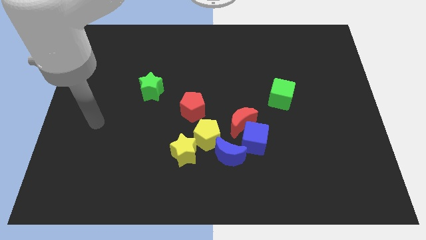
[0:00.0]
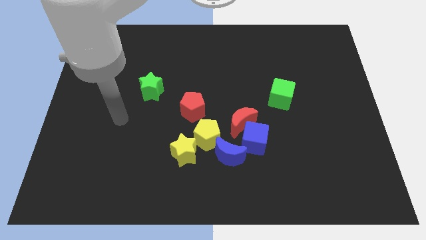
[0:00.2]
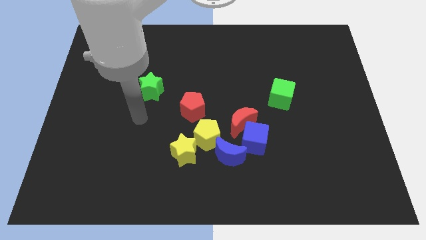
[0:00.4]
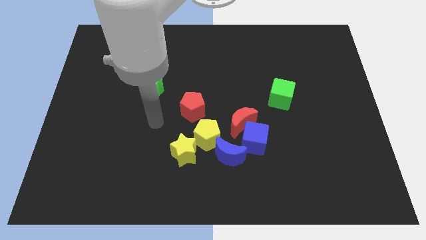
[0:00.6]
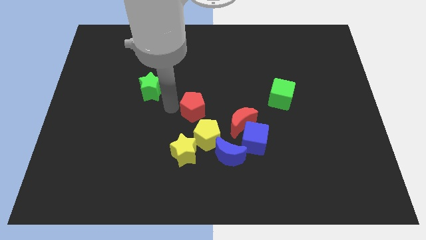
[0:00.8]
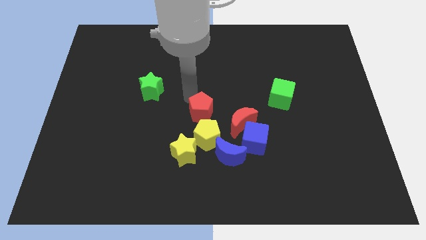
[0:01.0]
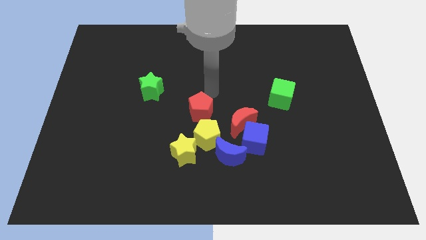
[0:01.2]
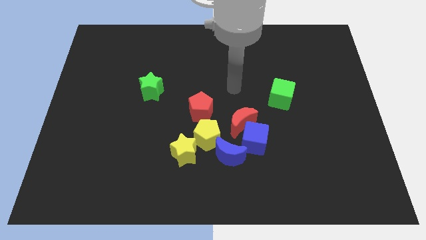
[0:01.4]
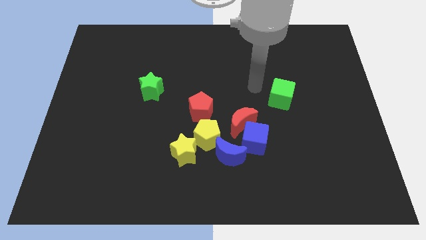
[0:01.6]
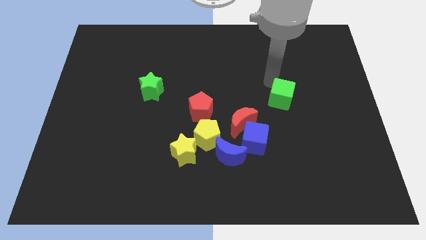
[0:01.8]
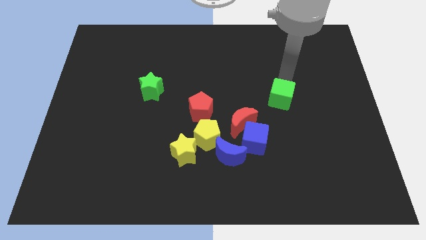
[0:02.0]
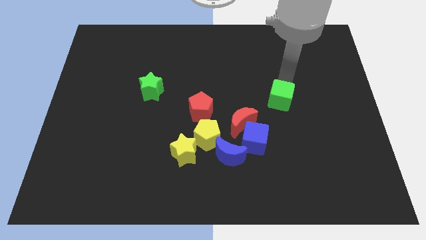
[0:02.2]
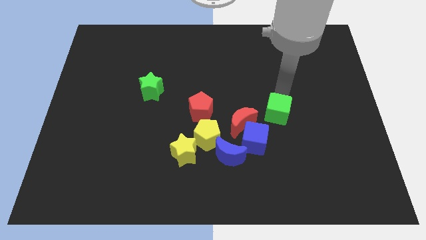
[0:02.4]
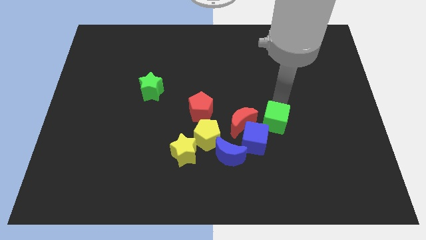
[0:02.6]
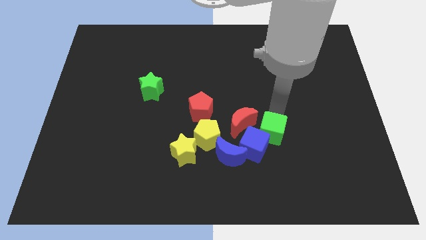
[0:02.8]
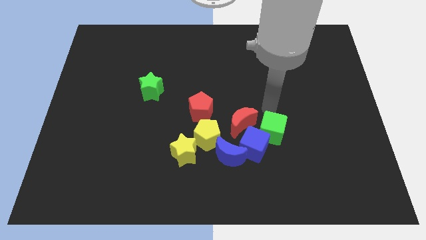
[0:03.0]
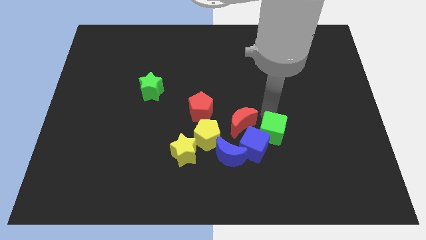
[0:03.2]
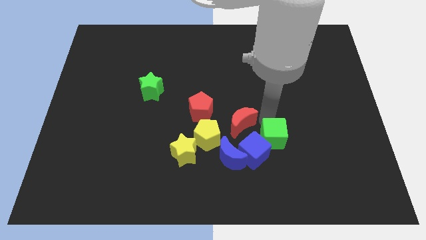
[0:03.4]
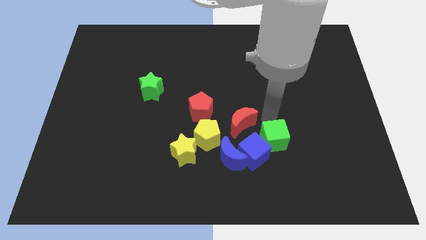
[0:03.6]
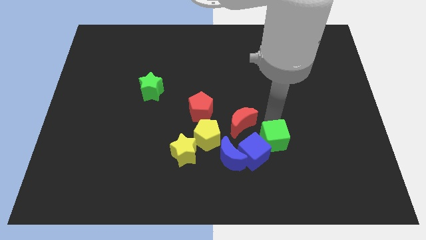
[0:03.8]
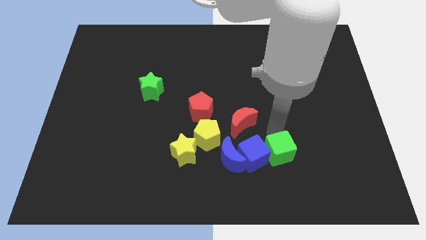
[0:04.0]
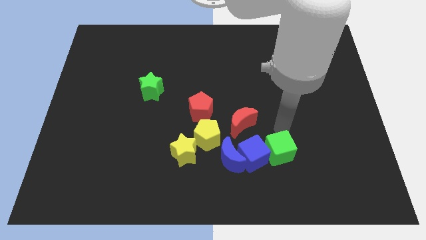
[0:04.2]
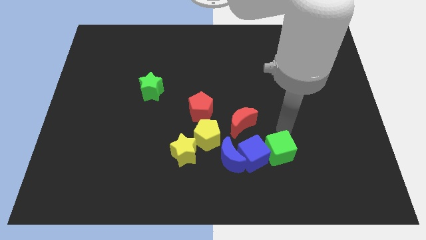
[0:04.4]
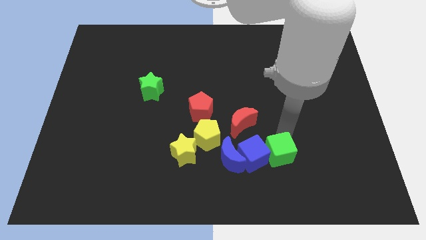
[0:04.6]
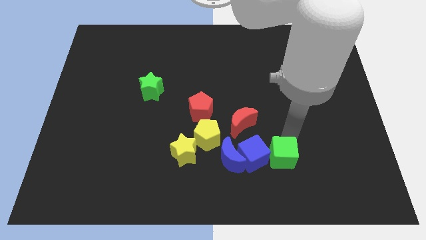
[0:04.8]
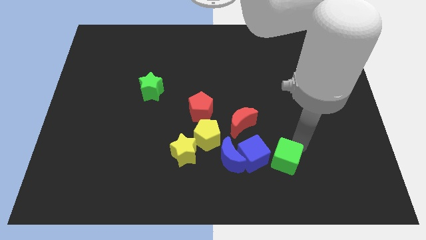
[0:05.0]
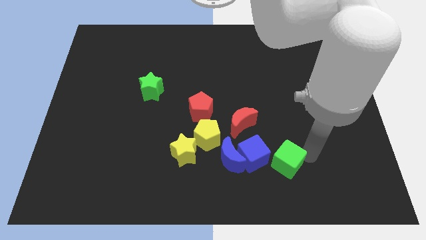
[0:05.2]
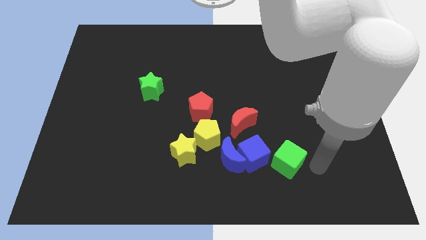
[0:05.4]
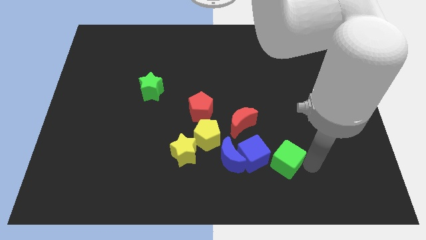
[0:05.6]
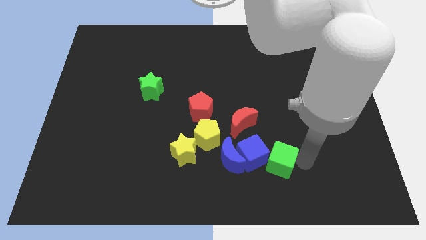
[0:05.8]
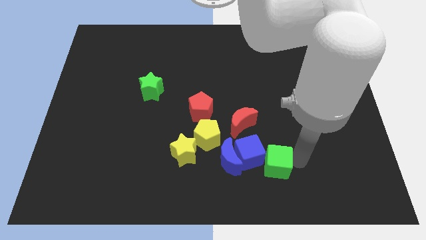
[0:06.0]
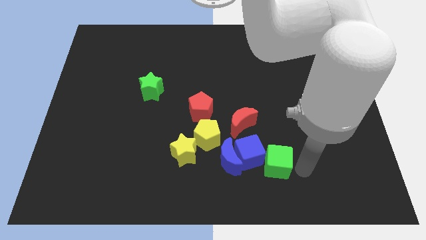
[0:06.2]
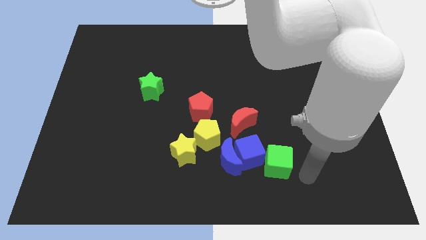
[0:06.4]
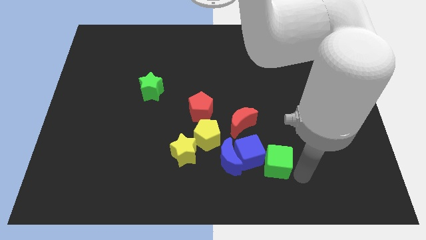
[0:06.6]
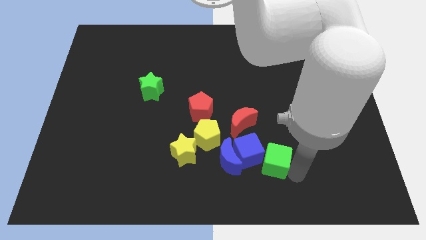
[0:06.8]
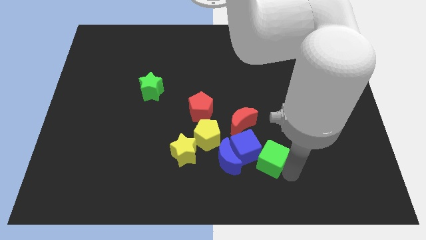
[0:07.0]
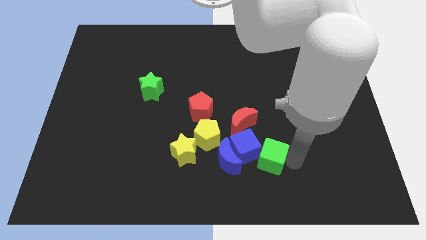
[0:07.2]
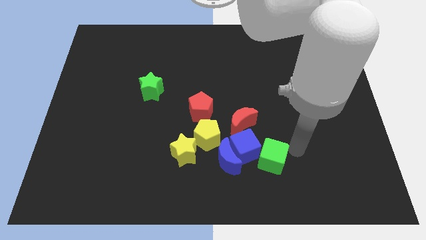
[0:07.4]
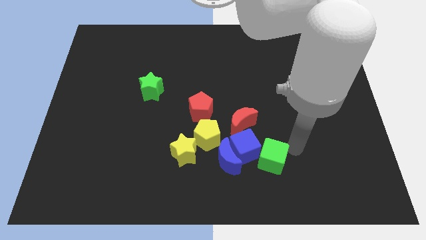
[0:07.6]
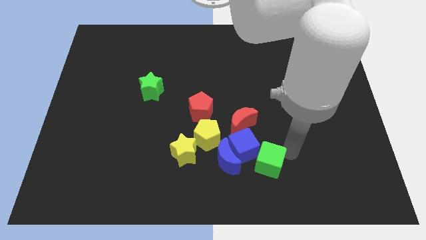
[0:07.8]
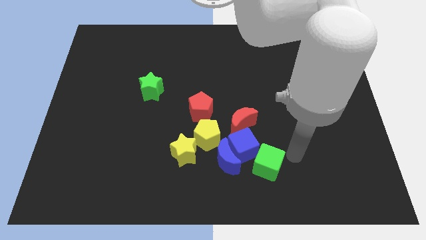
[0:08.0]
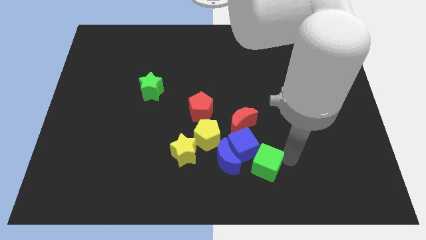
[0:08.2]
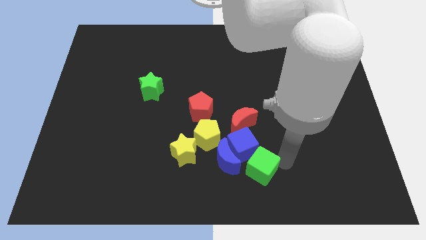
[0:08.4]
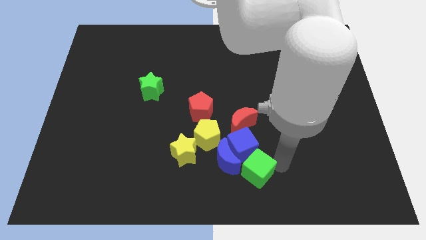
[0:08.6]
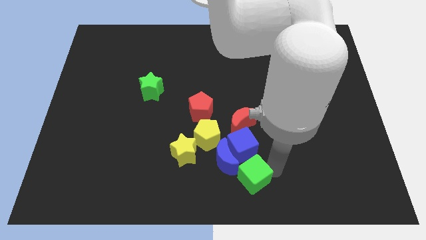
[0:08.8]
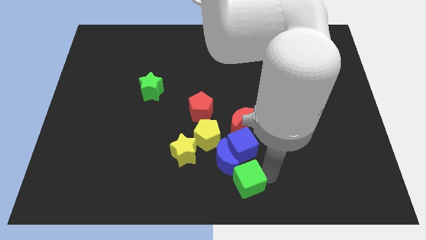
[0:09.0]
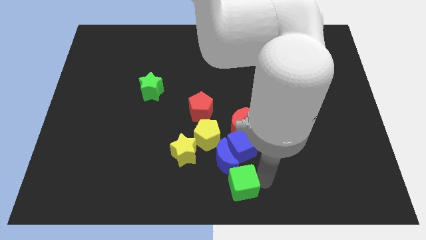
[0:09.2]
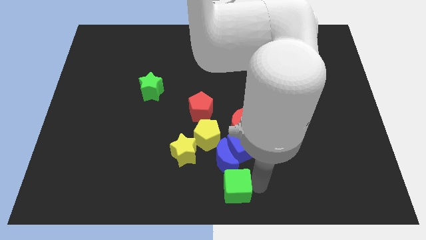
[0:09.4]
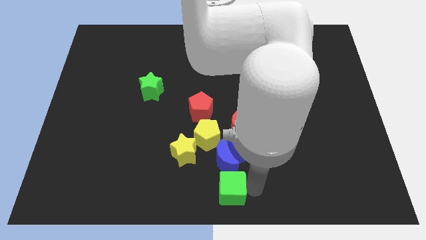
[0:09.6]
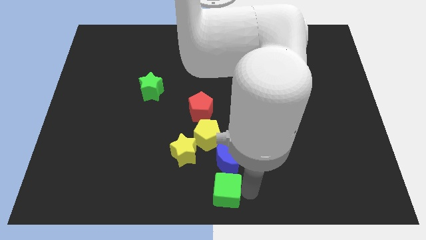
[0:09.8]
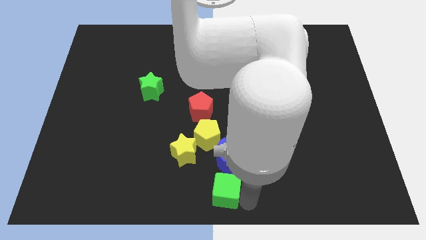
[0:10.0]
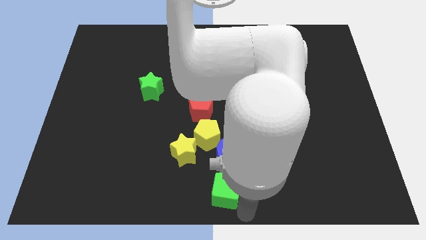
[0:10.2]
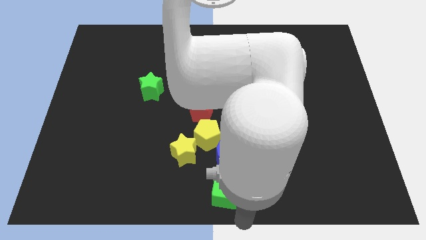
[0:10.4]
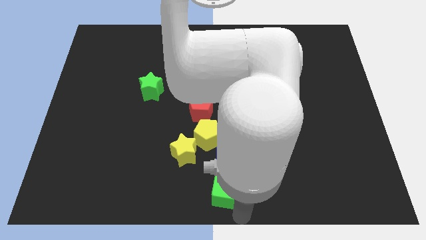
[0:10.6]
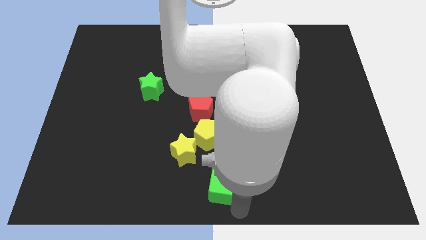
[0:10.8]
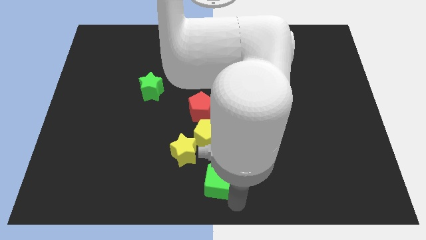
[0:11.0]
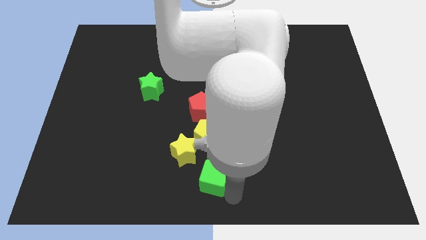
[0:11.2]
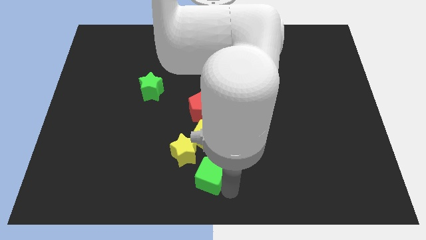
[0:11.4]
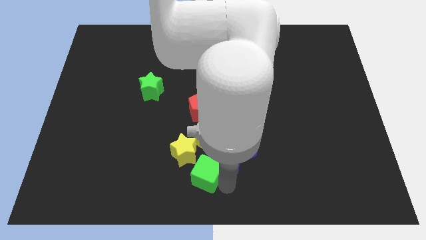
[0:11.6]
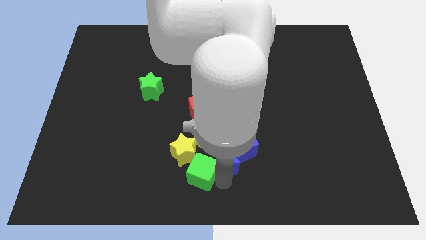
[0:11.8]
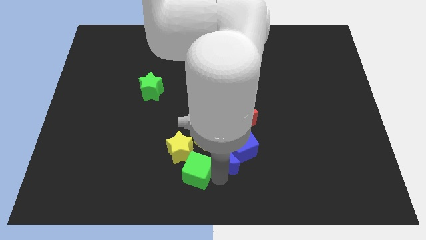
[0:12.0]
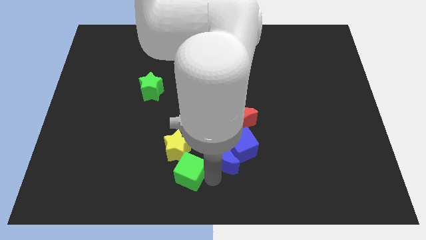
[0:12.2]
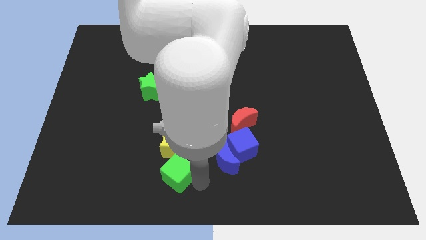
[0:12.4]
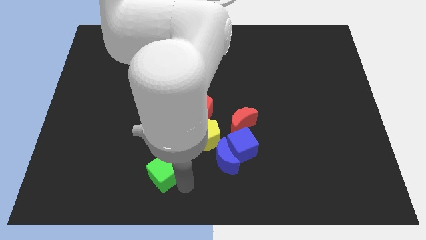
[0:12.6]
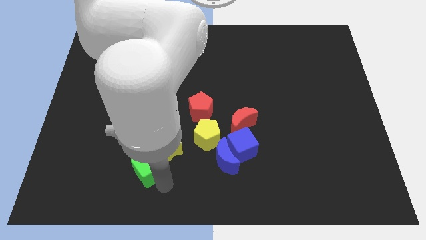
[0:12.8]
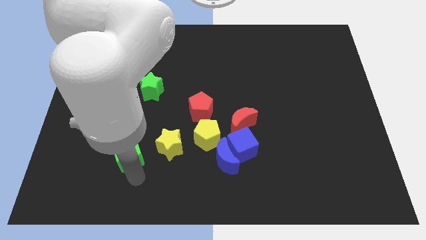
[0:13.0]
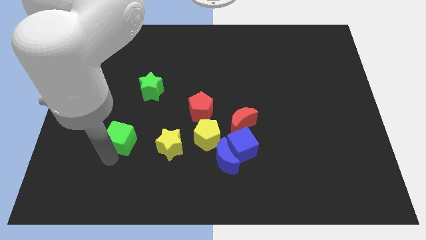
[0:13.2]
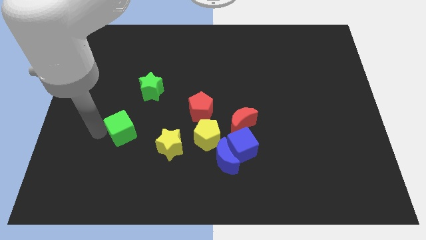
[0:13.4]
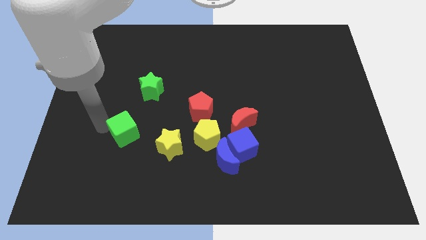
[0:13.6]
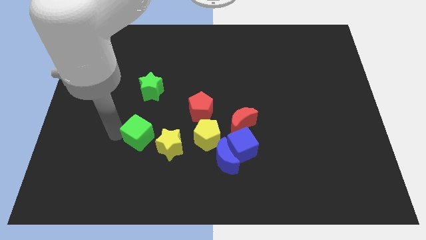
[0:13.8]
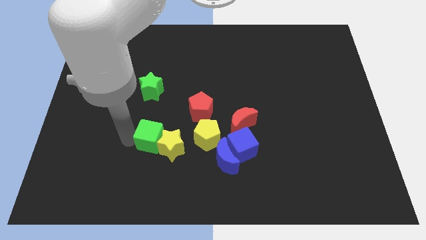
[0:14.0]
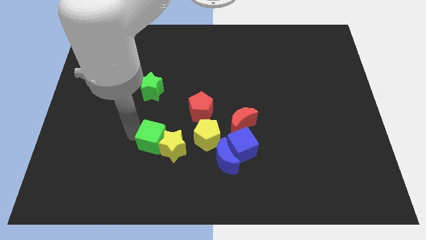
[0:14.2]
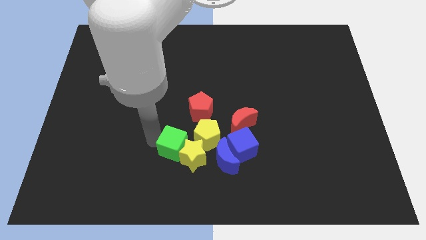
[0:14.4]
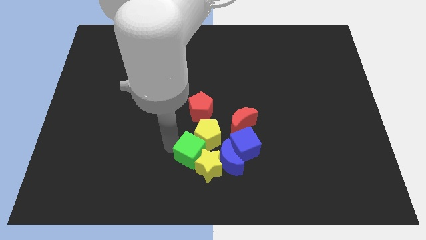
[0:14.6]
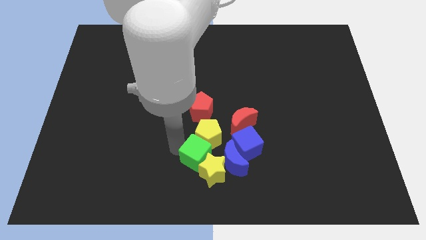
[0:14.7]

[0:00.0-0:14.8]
push the green cube to the bottom left of the red moon
